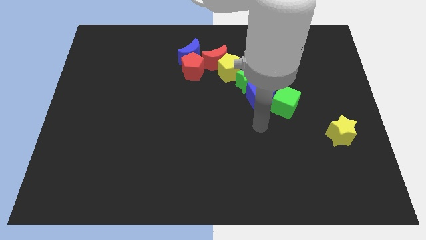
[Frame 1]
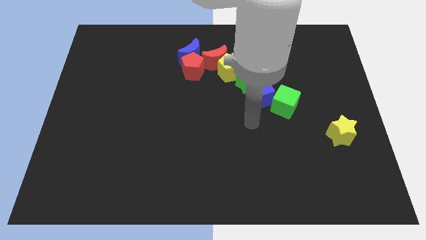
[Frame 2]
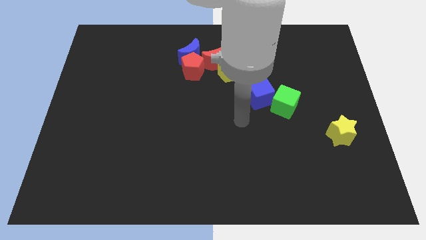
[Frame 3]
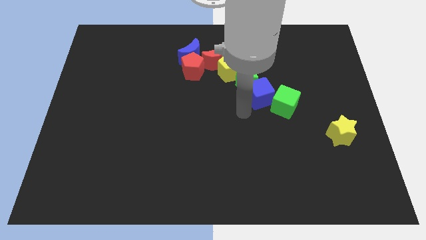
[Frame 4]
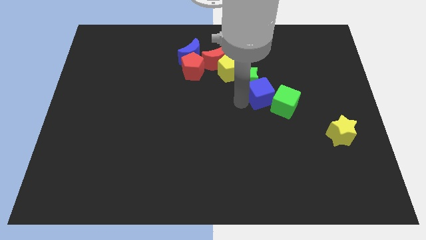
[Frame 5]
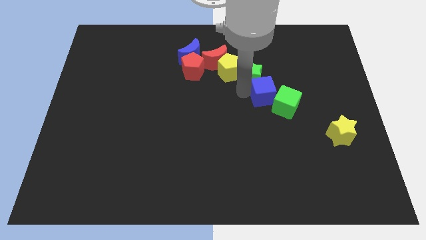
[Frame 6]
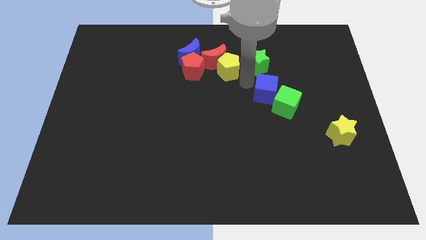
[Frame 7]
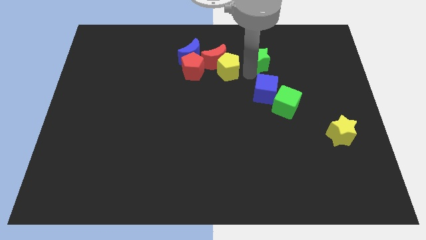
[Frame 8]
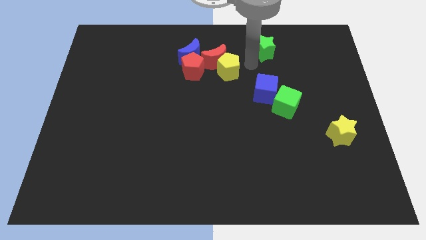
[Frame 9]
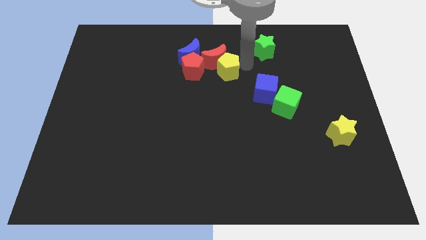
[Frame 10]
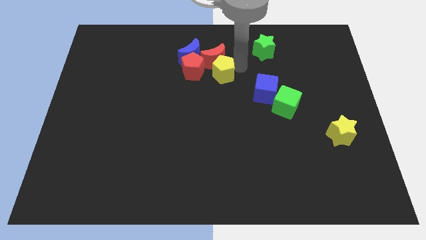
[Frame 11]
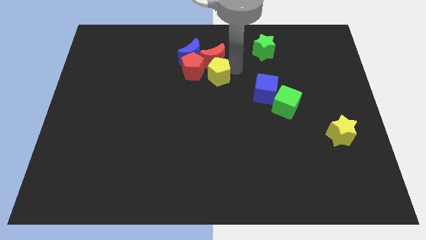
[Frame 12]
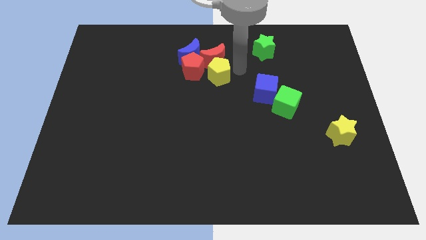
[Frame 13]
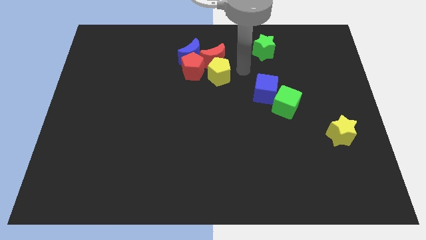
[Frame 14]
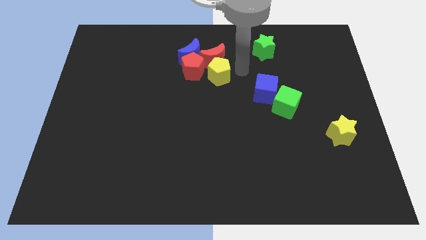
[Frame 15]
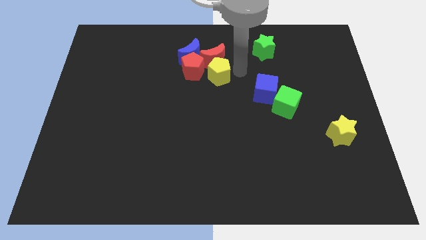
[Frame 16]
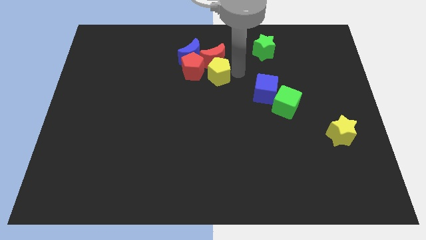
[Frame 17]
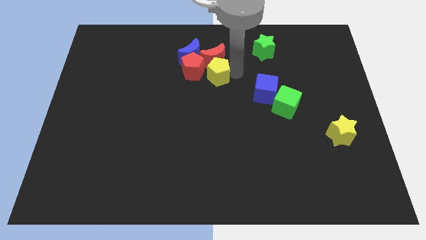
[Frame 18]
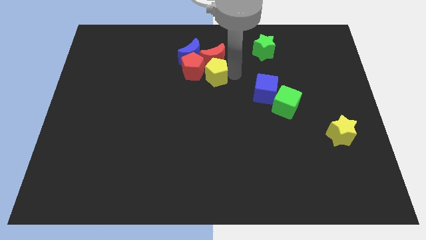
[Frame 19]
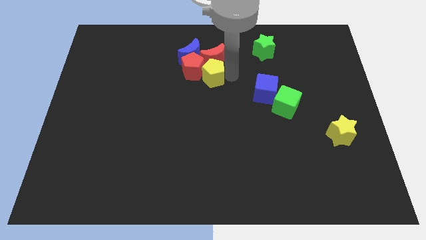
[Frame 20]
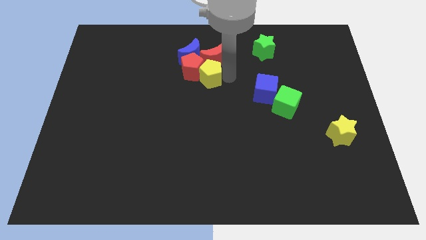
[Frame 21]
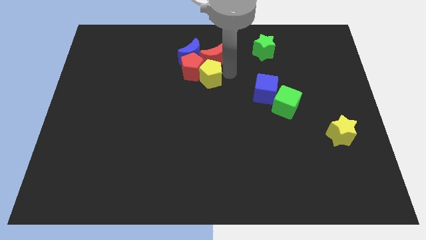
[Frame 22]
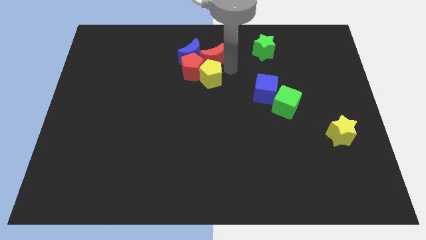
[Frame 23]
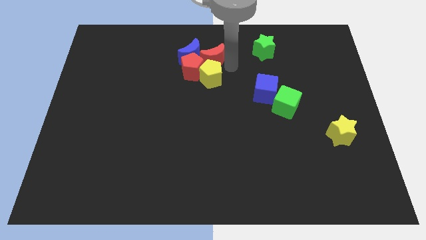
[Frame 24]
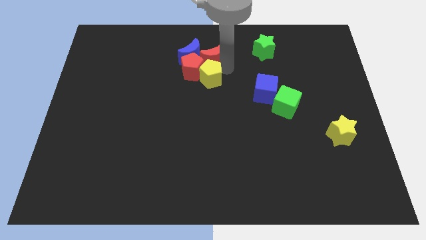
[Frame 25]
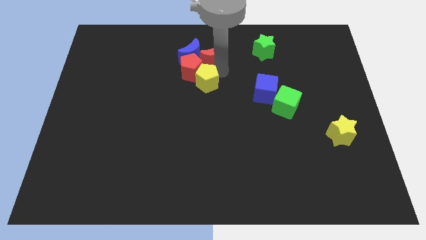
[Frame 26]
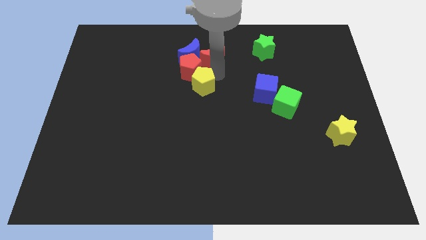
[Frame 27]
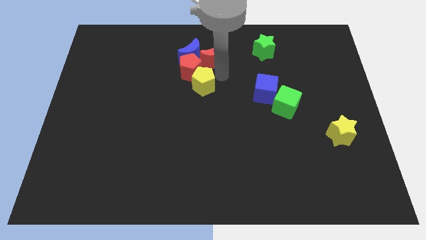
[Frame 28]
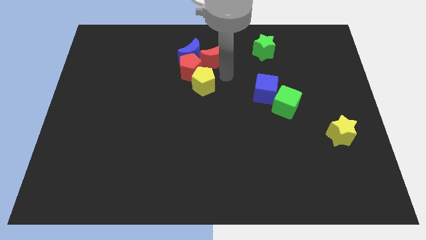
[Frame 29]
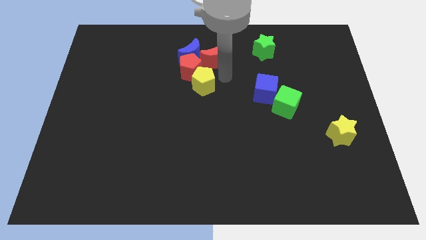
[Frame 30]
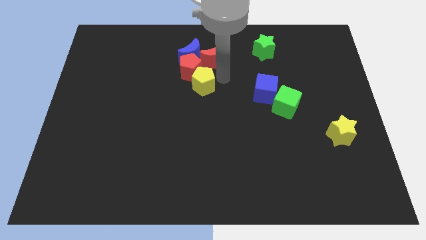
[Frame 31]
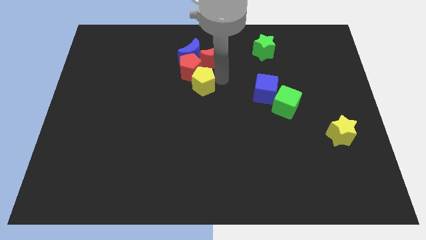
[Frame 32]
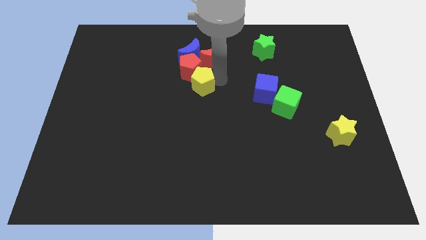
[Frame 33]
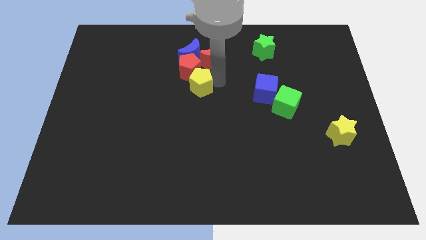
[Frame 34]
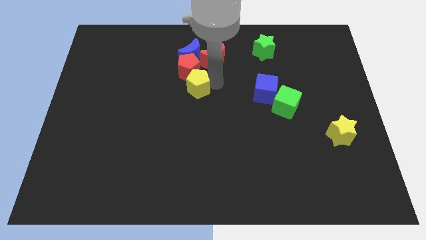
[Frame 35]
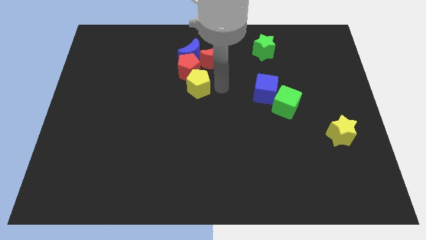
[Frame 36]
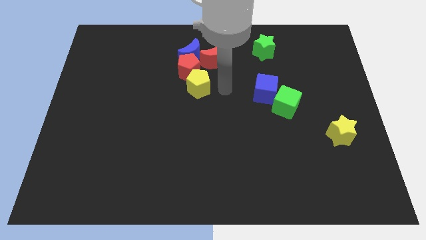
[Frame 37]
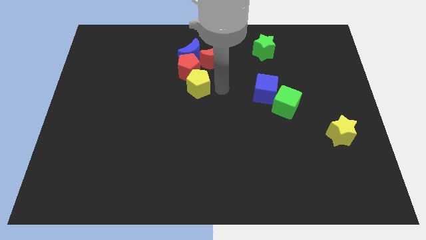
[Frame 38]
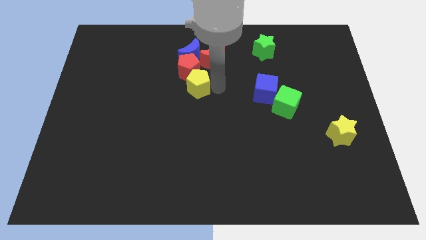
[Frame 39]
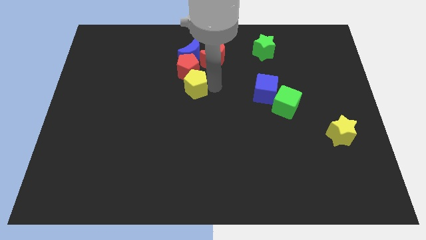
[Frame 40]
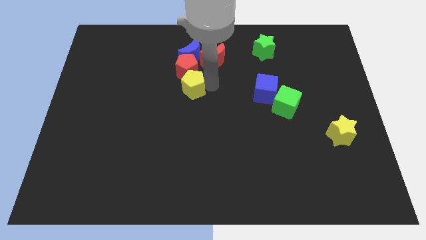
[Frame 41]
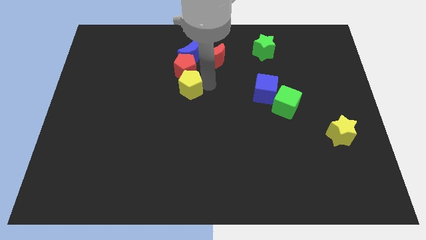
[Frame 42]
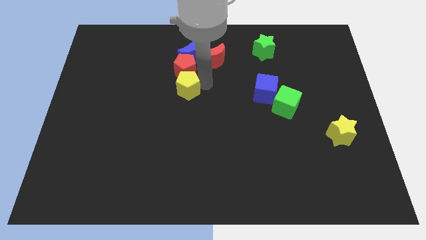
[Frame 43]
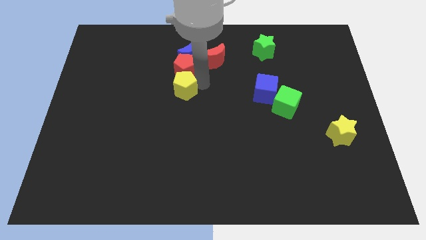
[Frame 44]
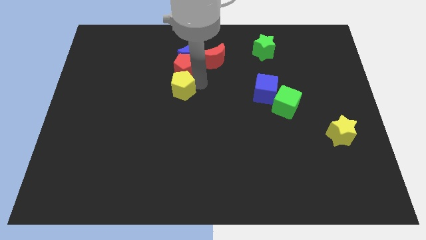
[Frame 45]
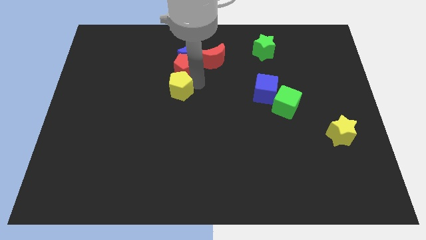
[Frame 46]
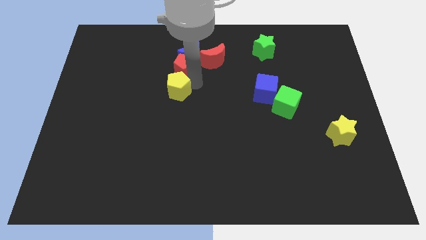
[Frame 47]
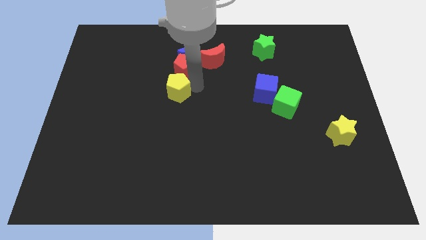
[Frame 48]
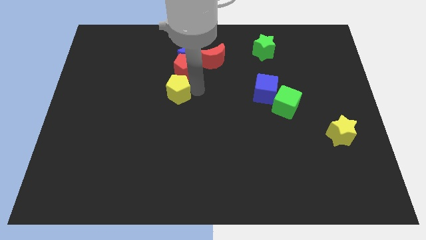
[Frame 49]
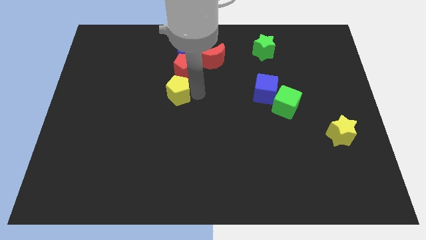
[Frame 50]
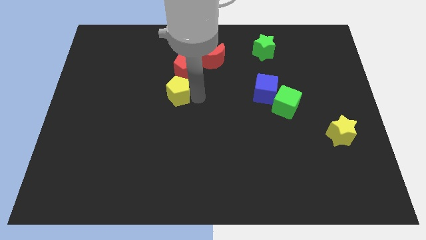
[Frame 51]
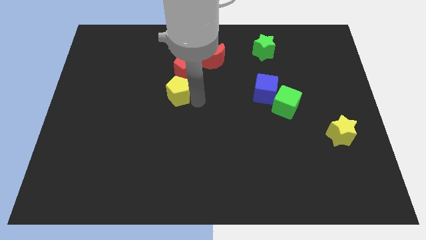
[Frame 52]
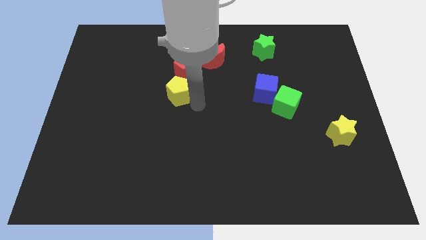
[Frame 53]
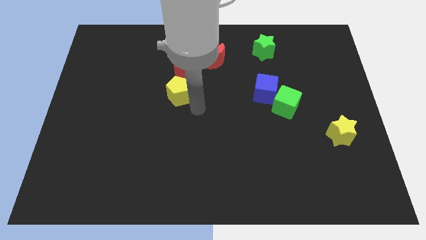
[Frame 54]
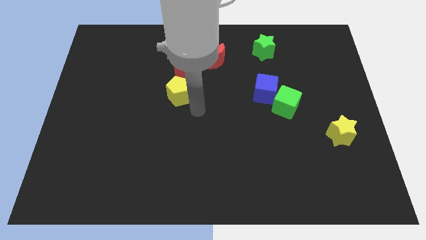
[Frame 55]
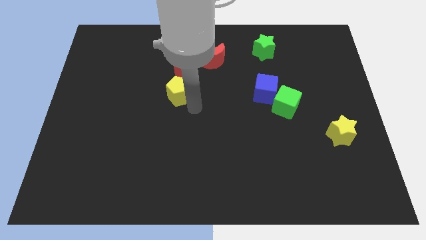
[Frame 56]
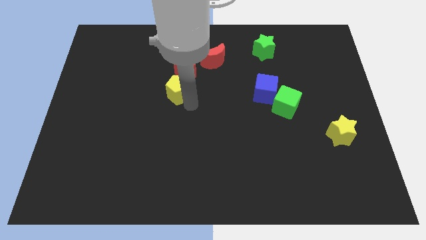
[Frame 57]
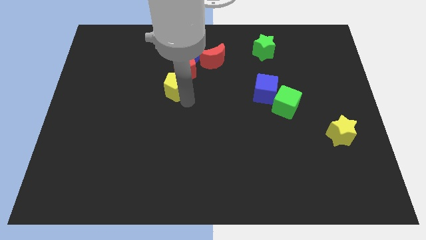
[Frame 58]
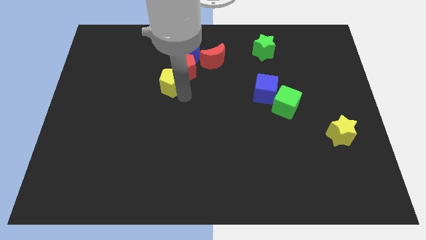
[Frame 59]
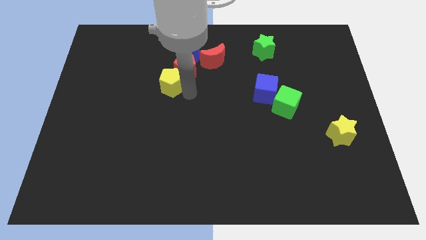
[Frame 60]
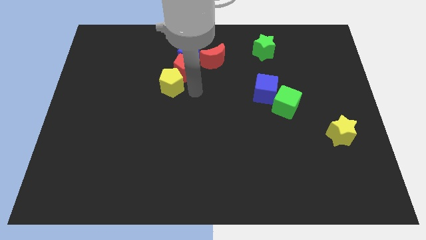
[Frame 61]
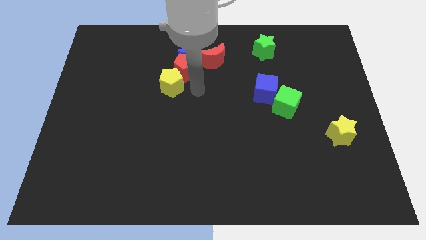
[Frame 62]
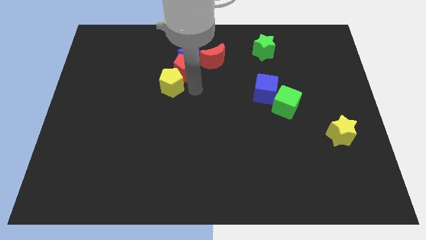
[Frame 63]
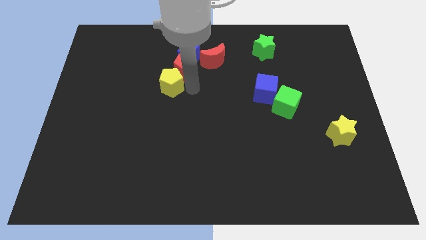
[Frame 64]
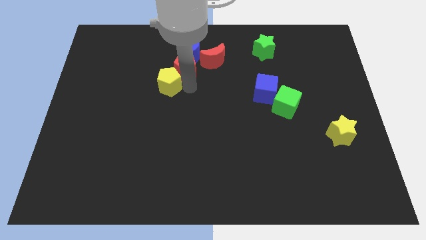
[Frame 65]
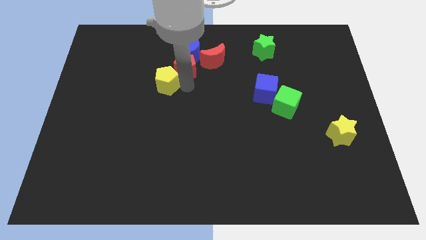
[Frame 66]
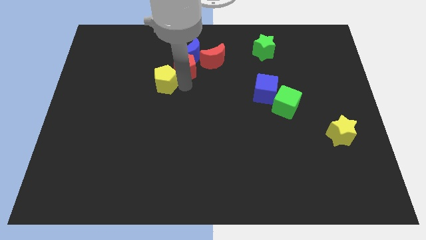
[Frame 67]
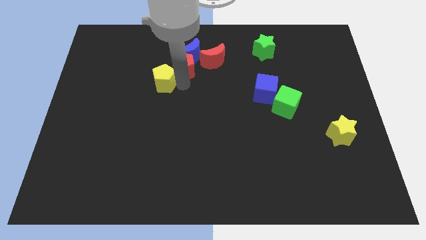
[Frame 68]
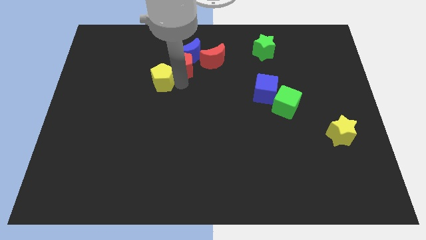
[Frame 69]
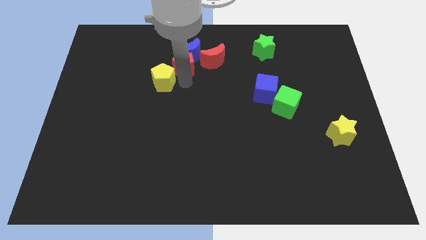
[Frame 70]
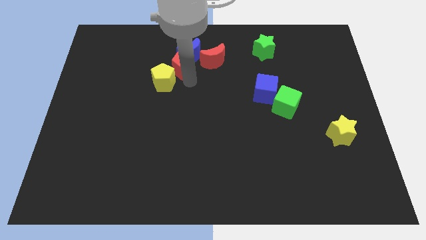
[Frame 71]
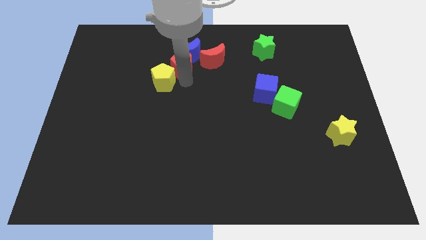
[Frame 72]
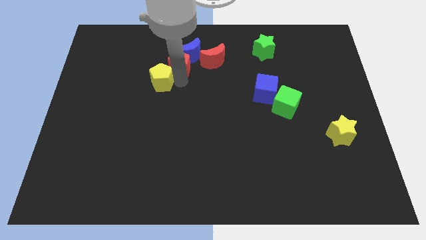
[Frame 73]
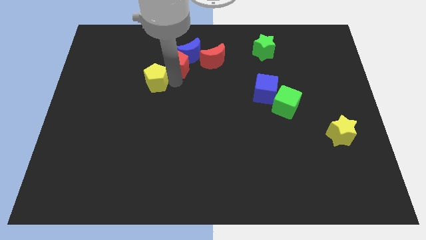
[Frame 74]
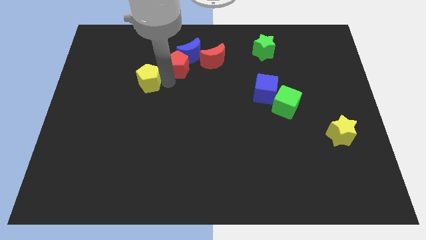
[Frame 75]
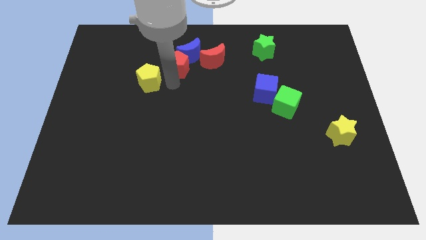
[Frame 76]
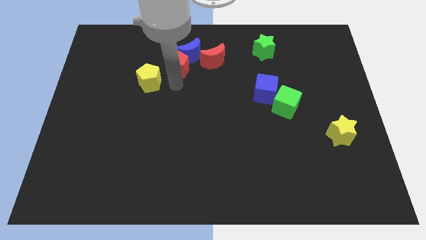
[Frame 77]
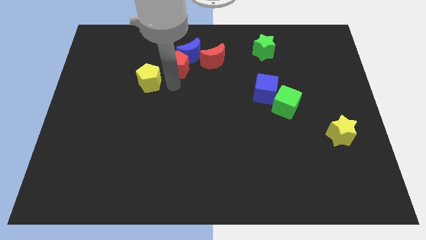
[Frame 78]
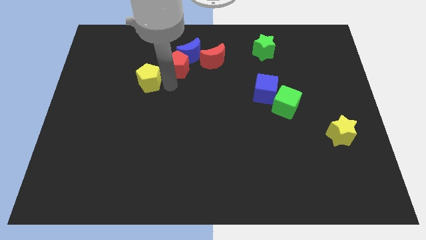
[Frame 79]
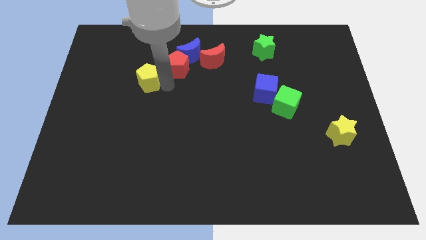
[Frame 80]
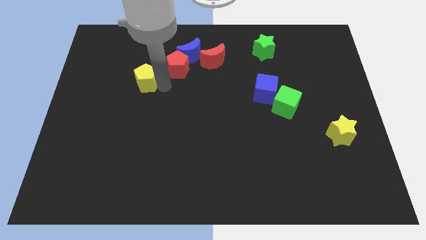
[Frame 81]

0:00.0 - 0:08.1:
move the yellow pentagon left
